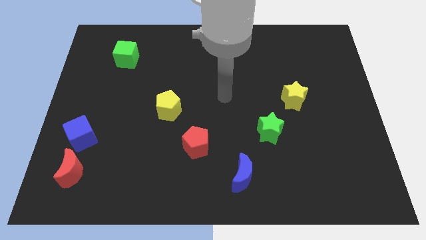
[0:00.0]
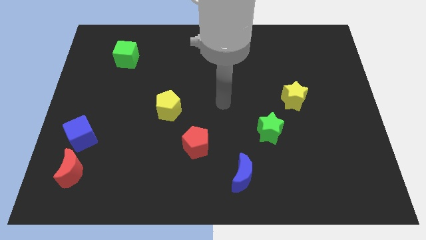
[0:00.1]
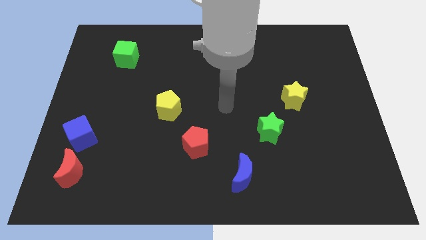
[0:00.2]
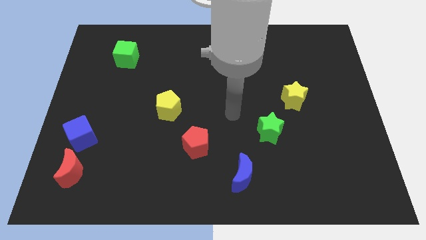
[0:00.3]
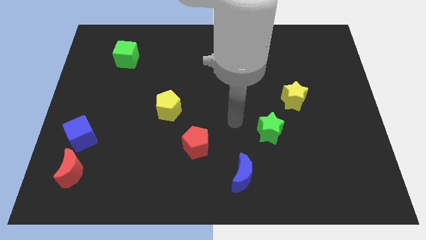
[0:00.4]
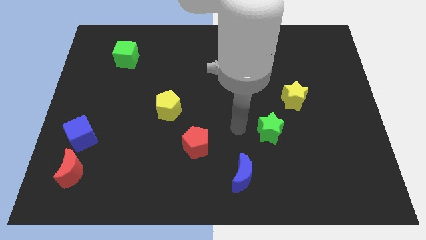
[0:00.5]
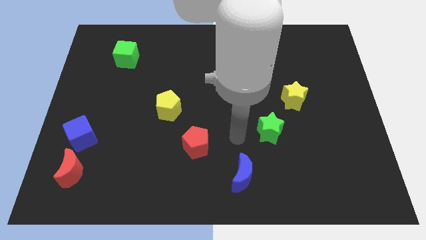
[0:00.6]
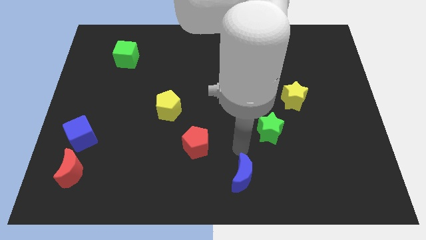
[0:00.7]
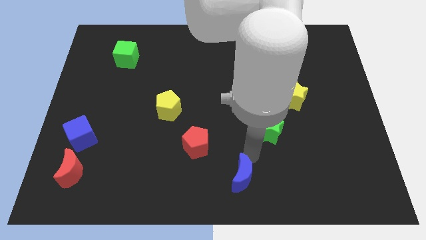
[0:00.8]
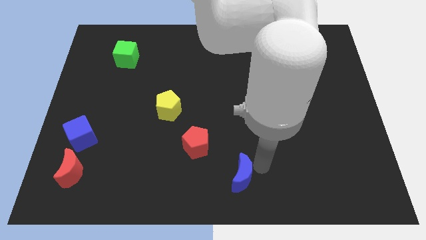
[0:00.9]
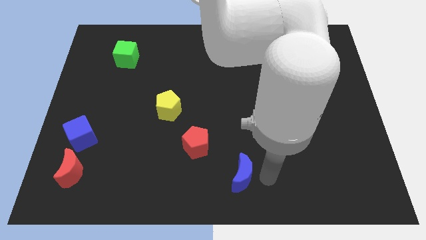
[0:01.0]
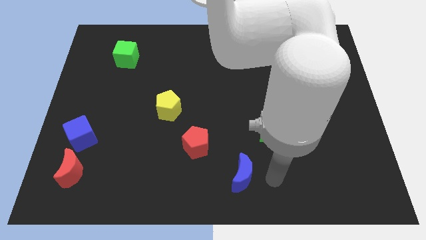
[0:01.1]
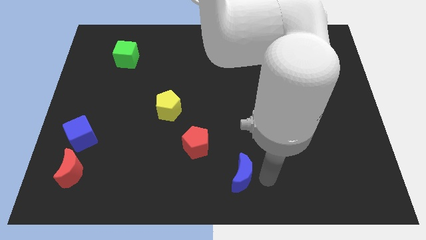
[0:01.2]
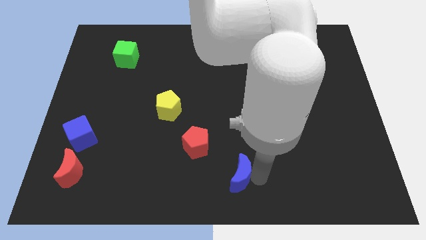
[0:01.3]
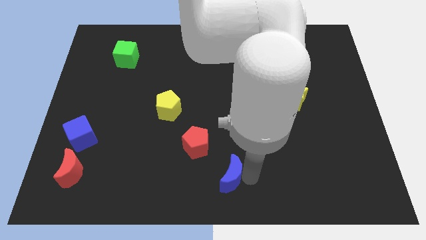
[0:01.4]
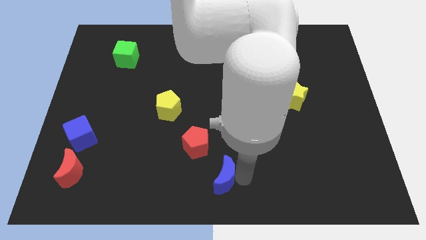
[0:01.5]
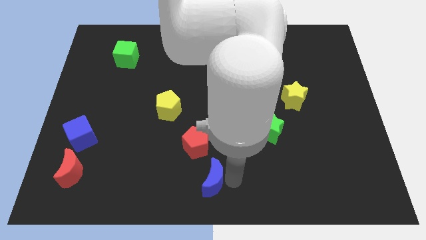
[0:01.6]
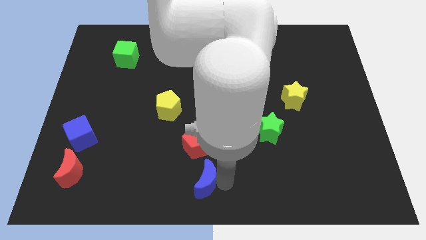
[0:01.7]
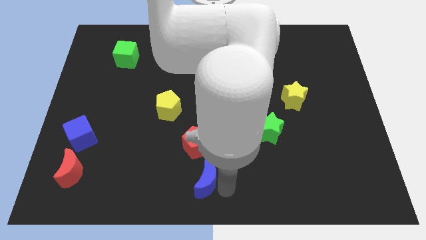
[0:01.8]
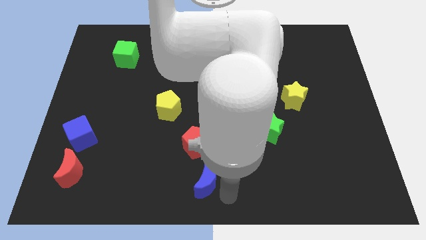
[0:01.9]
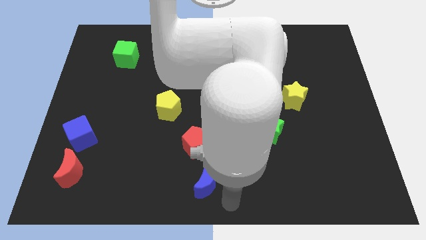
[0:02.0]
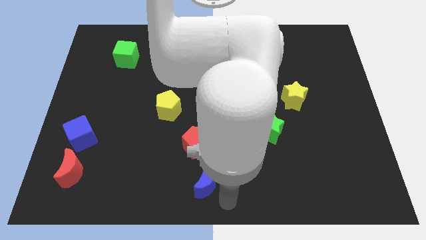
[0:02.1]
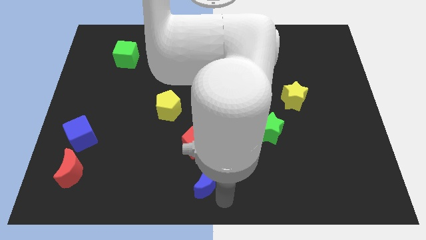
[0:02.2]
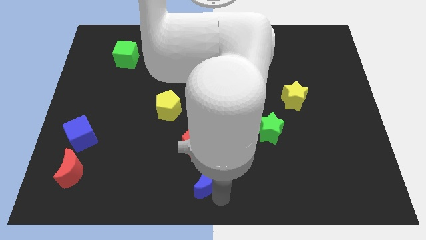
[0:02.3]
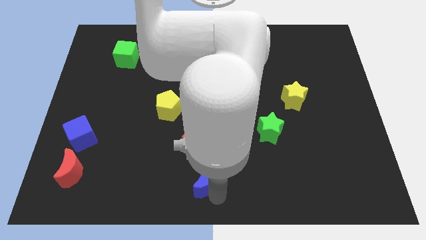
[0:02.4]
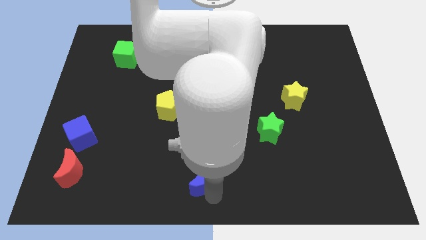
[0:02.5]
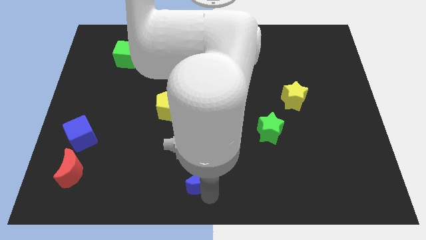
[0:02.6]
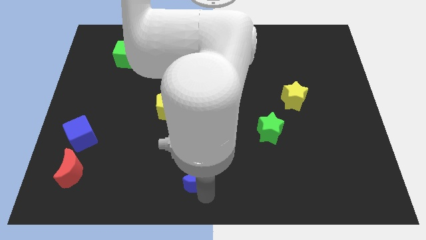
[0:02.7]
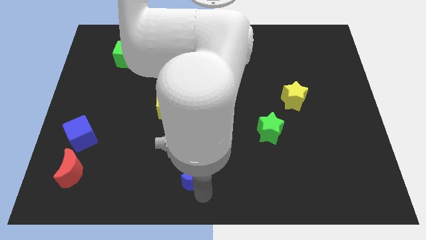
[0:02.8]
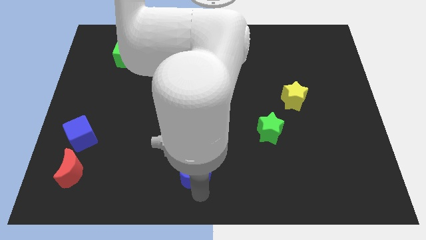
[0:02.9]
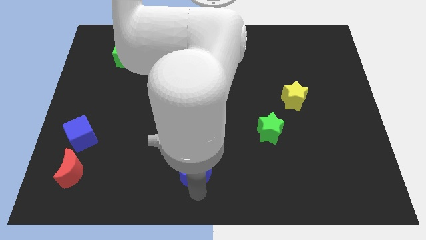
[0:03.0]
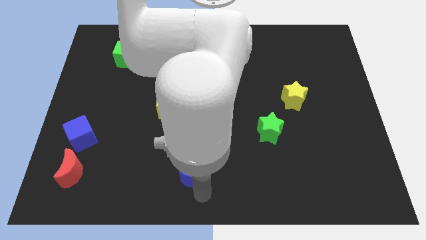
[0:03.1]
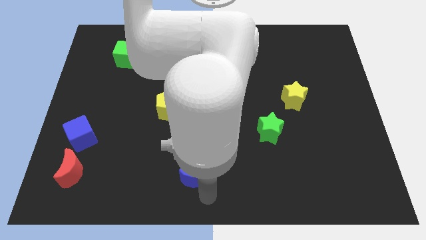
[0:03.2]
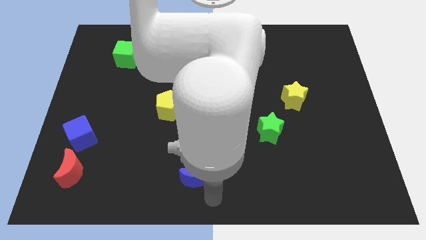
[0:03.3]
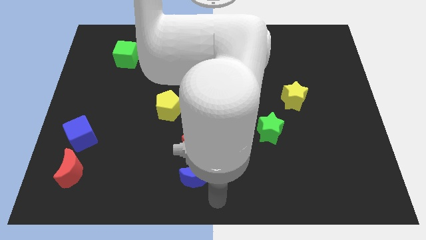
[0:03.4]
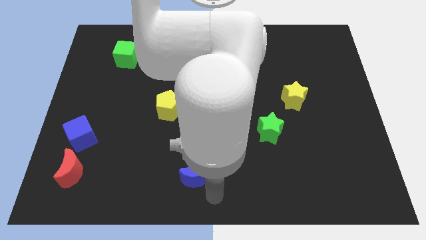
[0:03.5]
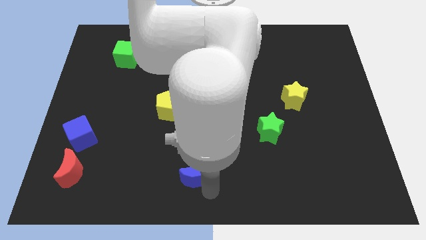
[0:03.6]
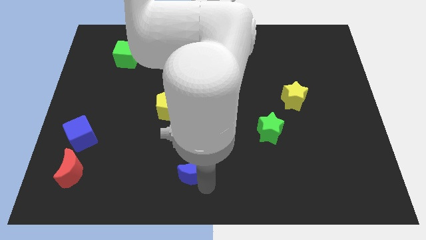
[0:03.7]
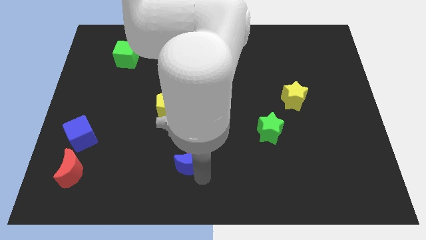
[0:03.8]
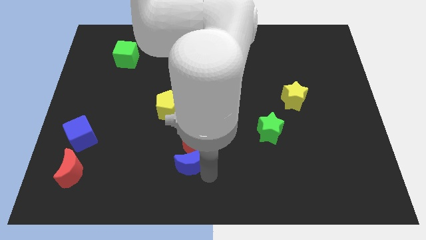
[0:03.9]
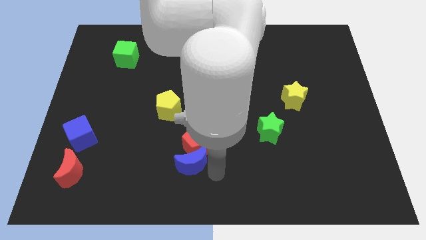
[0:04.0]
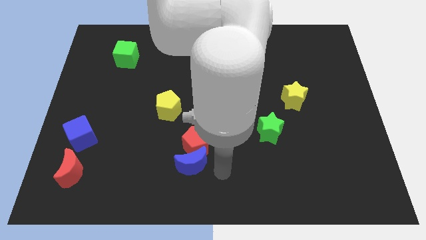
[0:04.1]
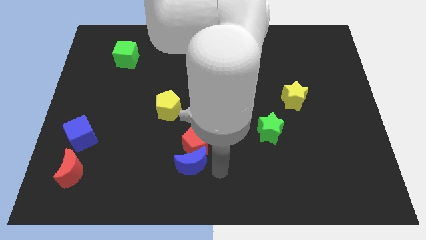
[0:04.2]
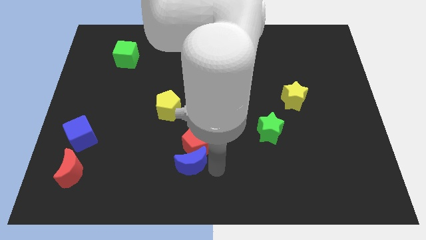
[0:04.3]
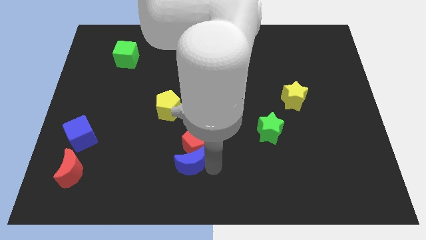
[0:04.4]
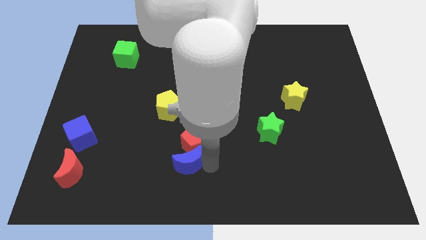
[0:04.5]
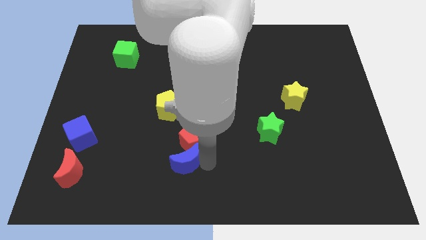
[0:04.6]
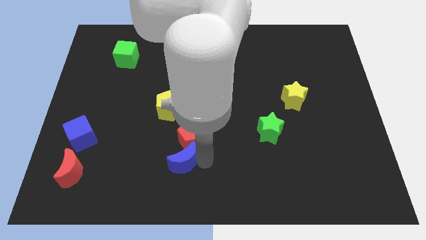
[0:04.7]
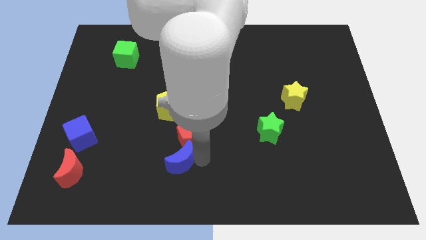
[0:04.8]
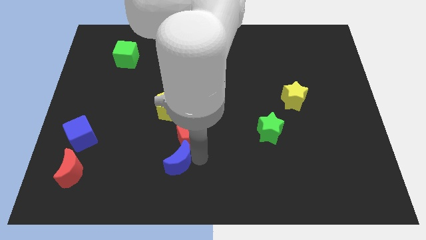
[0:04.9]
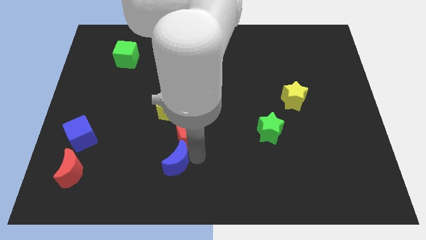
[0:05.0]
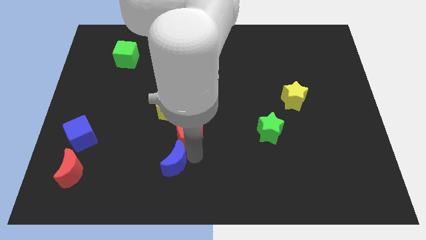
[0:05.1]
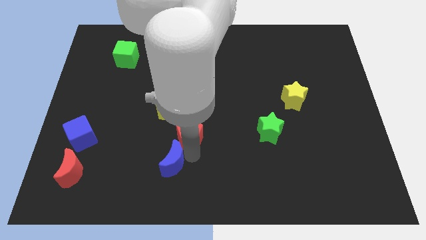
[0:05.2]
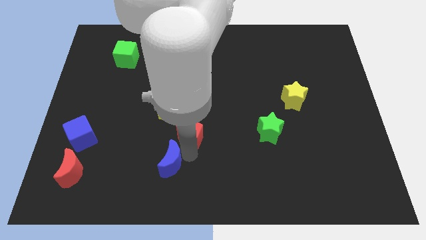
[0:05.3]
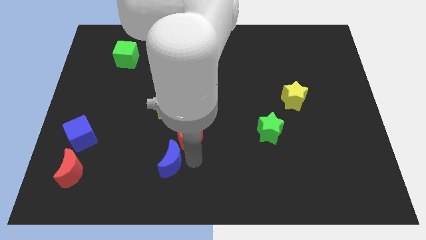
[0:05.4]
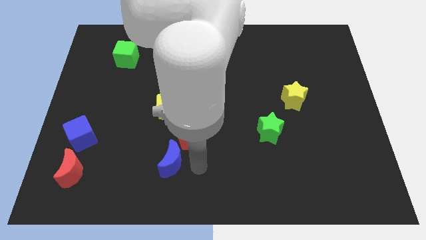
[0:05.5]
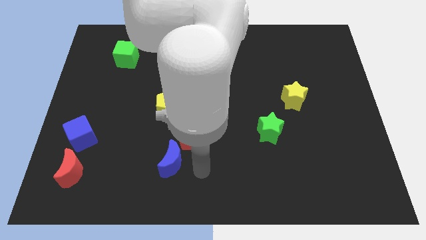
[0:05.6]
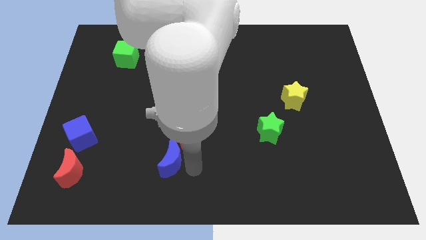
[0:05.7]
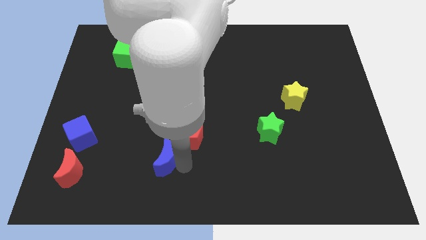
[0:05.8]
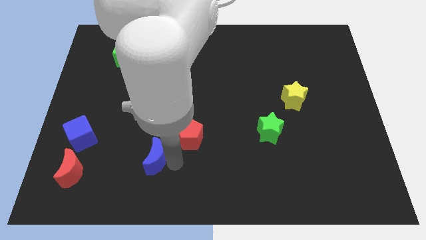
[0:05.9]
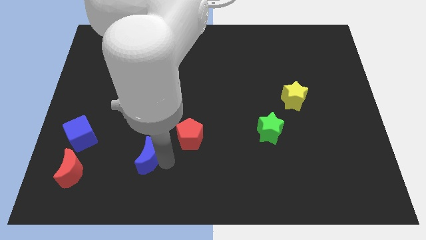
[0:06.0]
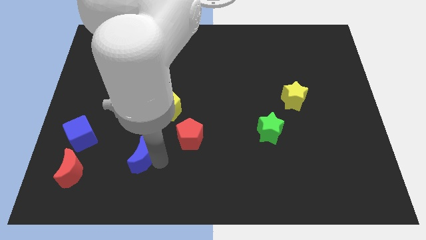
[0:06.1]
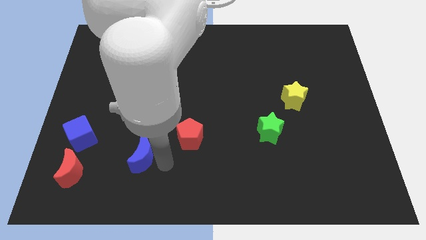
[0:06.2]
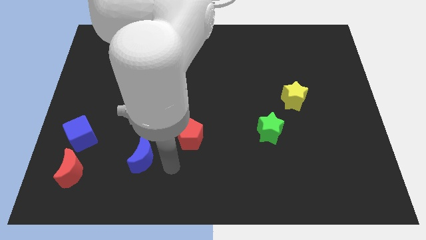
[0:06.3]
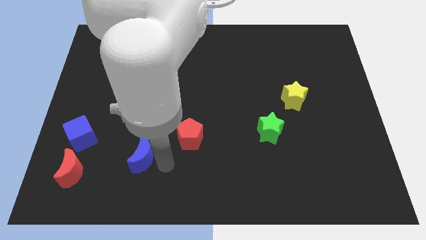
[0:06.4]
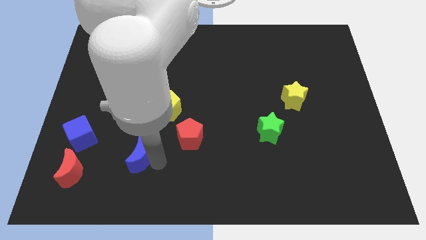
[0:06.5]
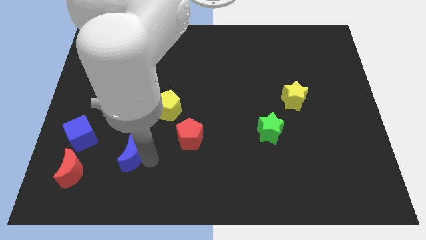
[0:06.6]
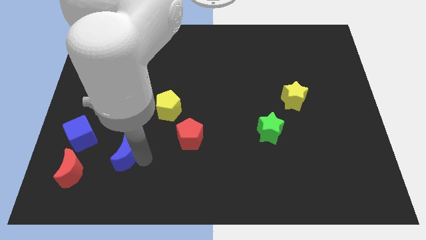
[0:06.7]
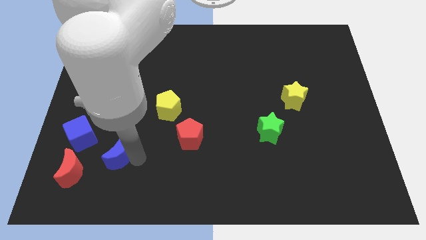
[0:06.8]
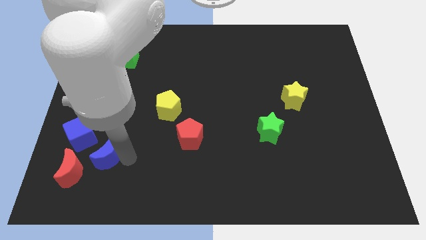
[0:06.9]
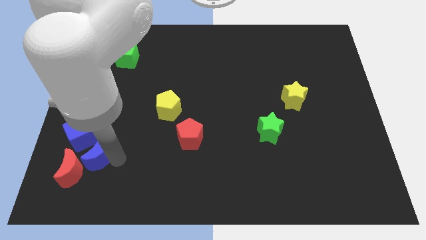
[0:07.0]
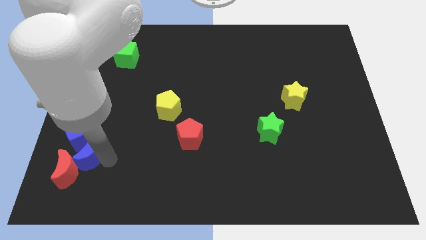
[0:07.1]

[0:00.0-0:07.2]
move the blue moon next to the blue cube

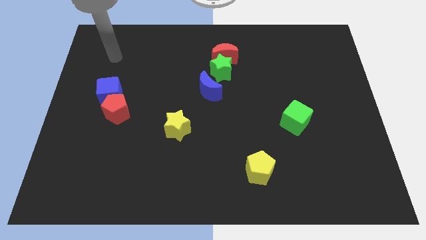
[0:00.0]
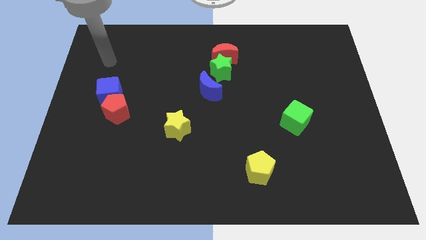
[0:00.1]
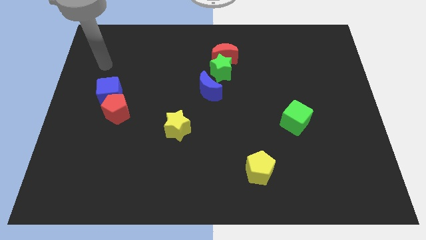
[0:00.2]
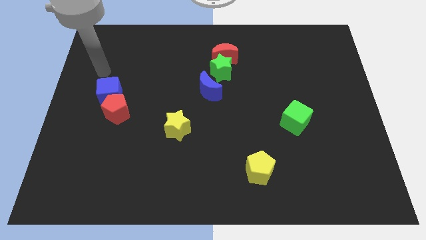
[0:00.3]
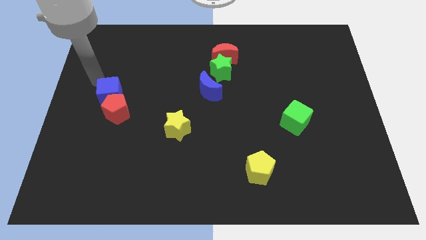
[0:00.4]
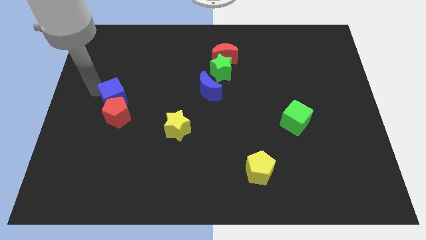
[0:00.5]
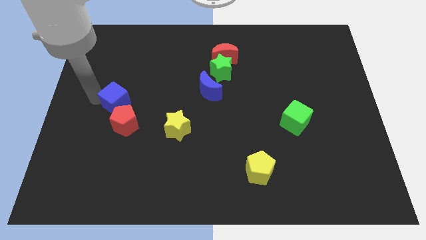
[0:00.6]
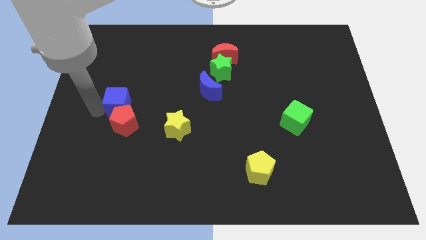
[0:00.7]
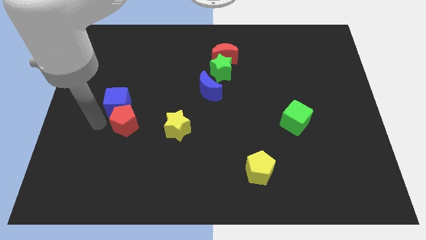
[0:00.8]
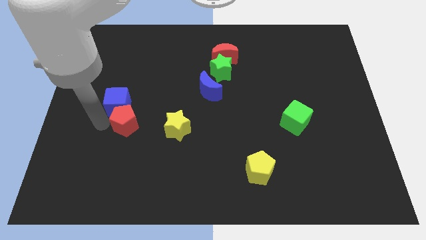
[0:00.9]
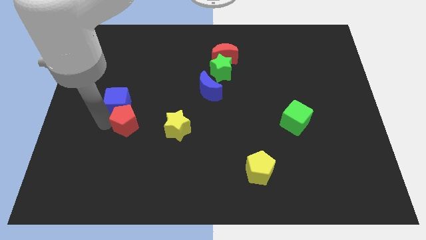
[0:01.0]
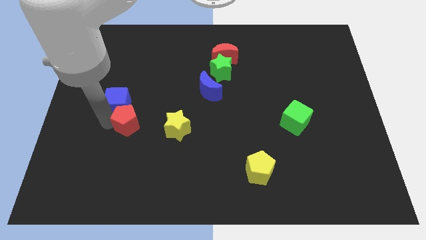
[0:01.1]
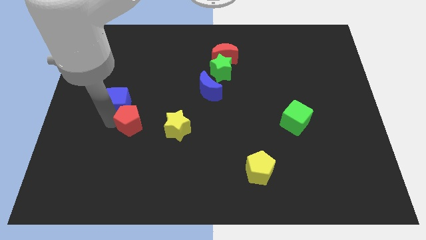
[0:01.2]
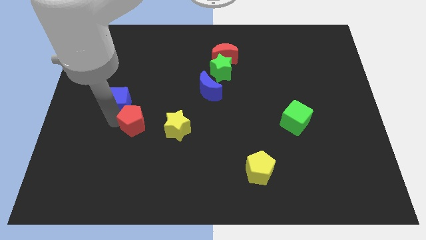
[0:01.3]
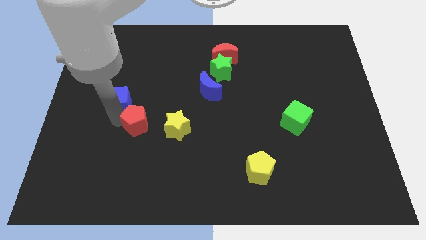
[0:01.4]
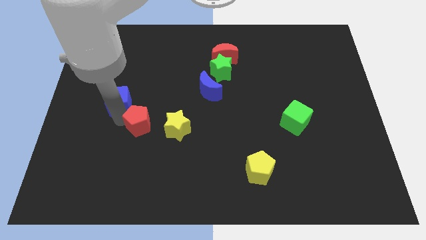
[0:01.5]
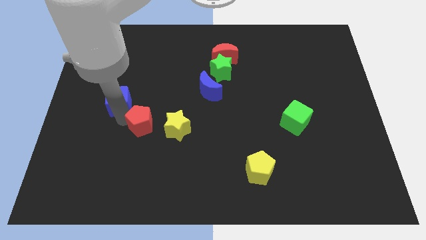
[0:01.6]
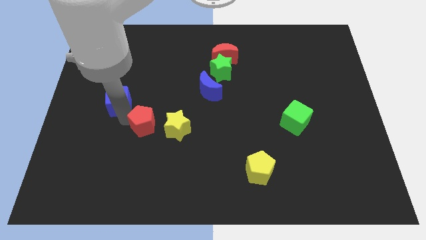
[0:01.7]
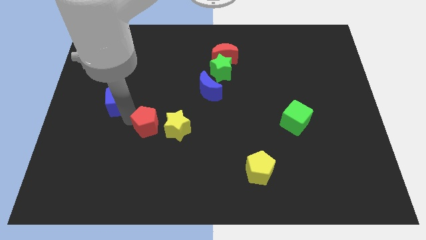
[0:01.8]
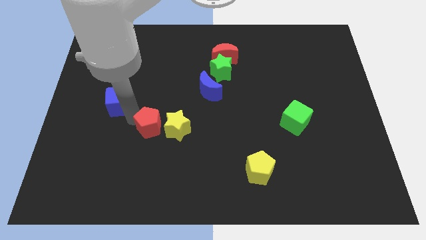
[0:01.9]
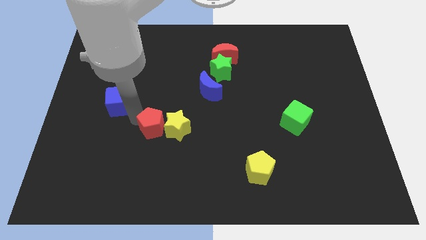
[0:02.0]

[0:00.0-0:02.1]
push the red pentagon next to the yellow star
